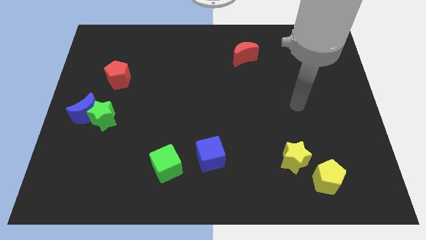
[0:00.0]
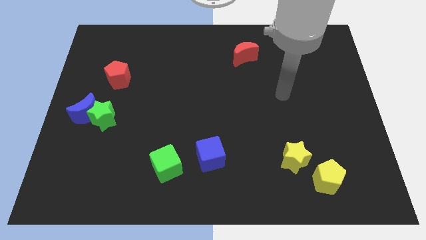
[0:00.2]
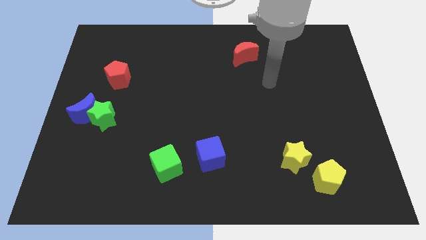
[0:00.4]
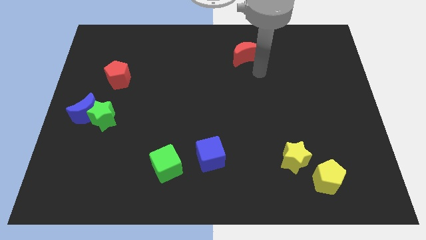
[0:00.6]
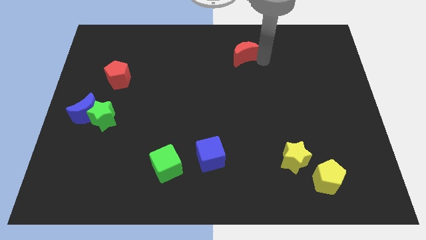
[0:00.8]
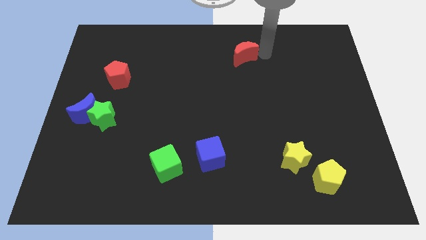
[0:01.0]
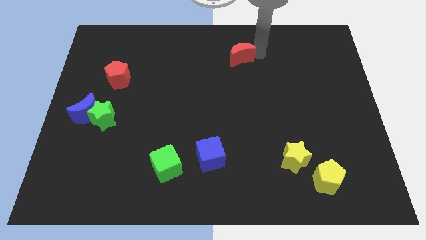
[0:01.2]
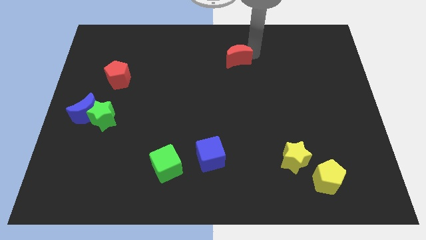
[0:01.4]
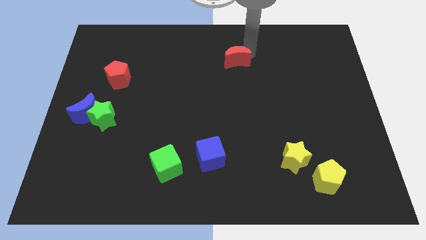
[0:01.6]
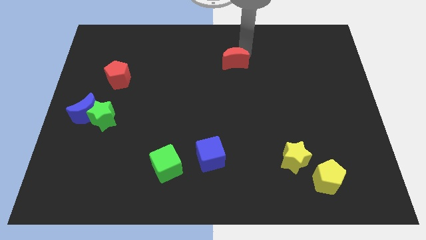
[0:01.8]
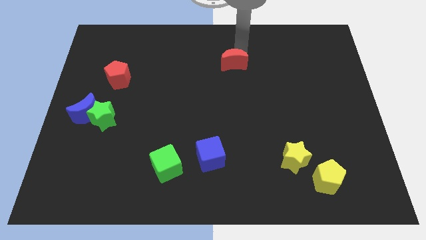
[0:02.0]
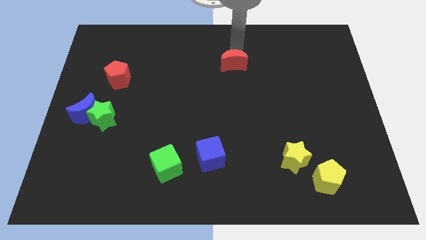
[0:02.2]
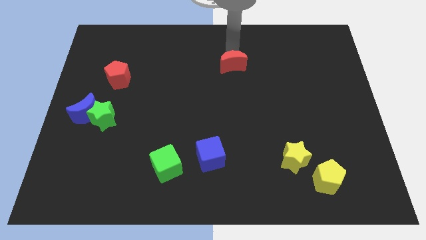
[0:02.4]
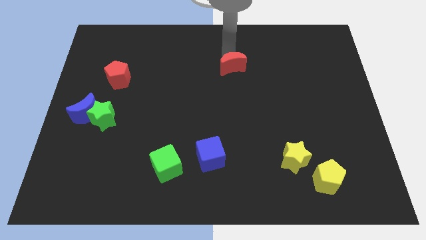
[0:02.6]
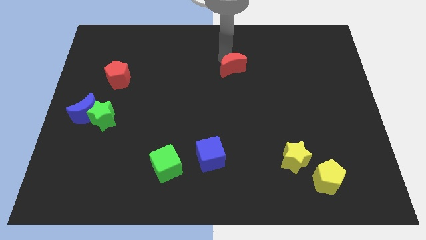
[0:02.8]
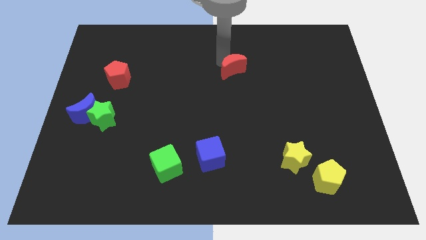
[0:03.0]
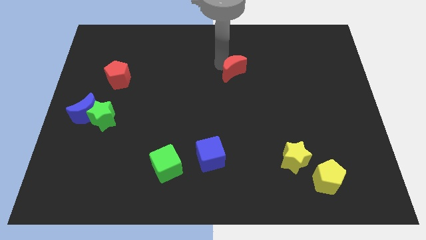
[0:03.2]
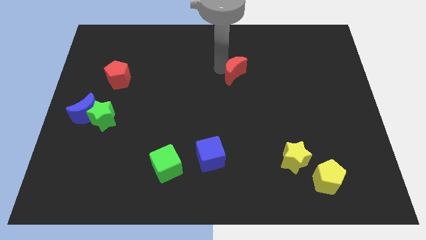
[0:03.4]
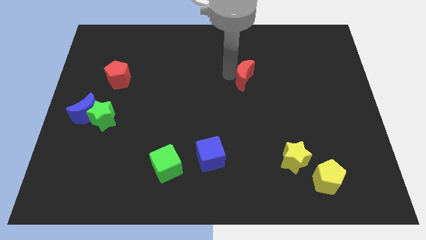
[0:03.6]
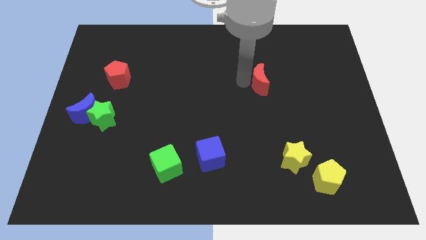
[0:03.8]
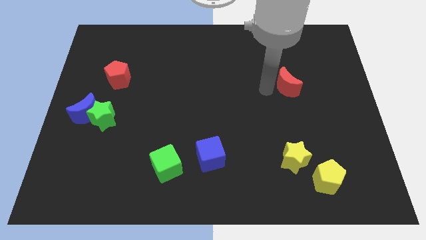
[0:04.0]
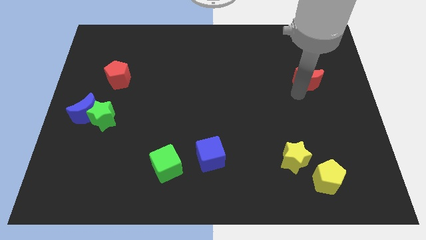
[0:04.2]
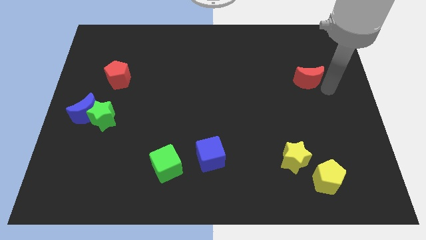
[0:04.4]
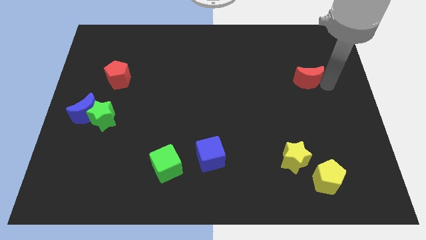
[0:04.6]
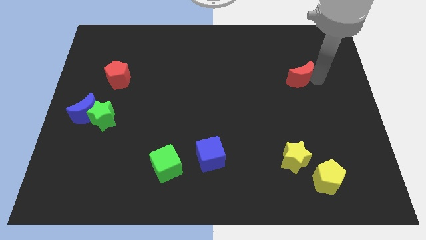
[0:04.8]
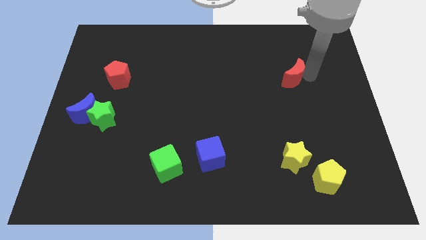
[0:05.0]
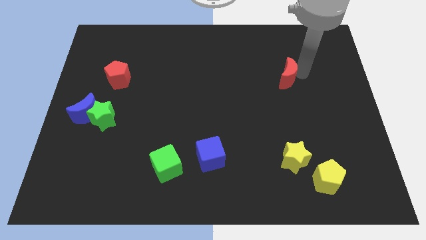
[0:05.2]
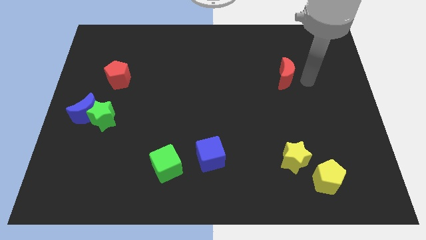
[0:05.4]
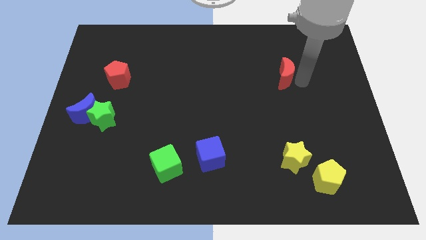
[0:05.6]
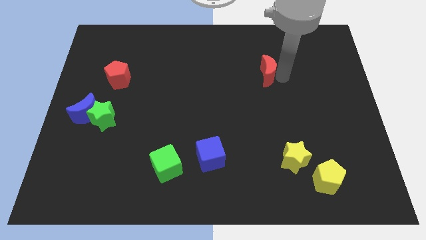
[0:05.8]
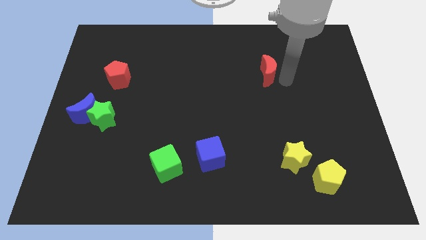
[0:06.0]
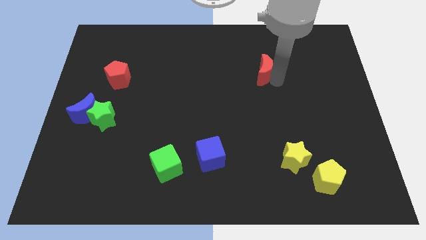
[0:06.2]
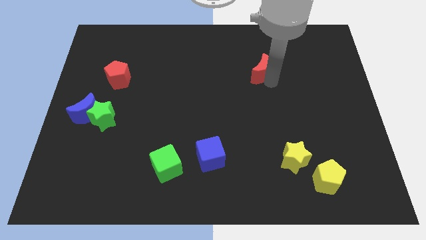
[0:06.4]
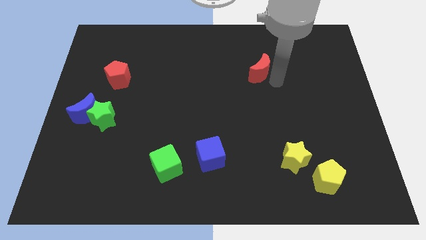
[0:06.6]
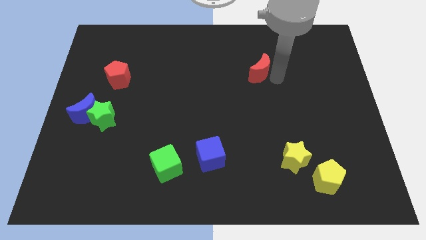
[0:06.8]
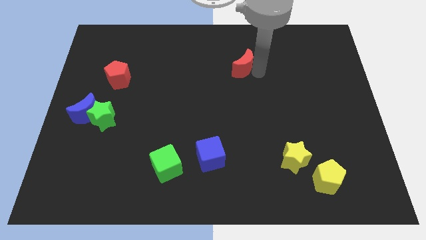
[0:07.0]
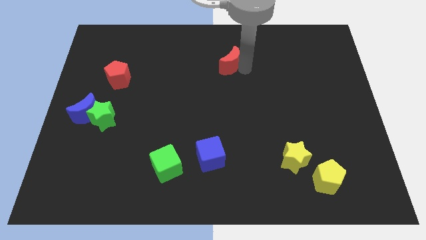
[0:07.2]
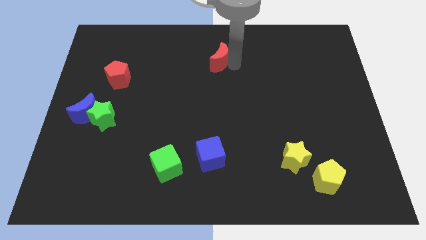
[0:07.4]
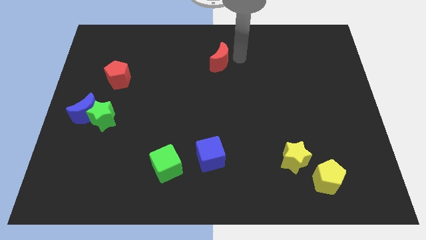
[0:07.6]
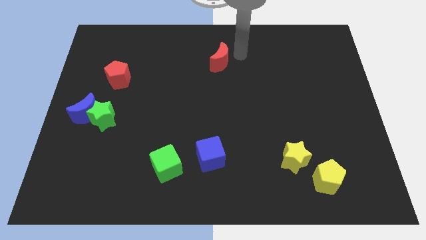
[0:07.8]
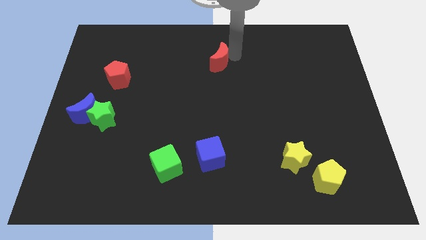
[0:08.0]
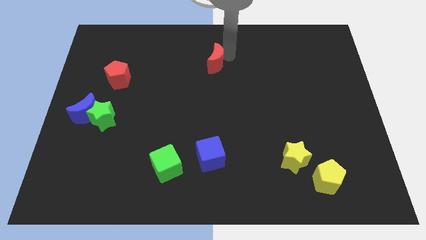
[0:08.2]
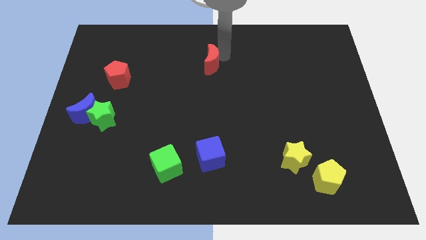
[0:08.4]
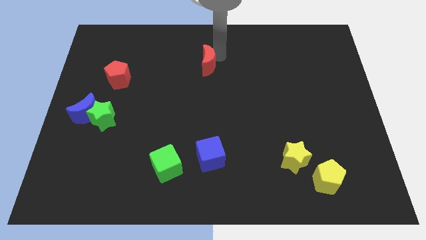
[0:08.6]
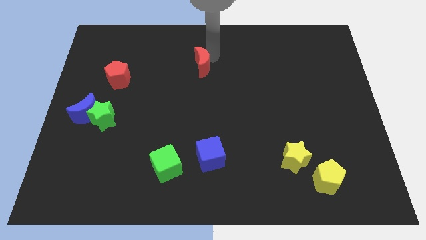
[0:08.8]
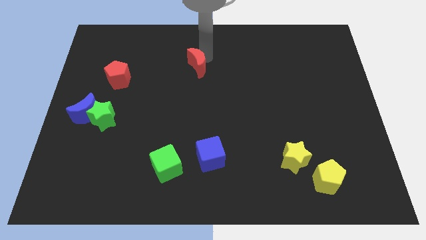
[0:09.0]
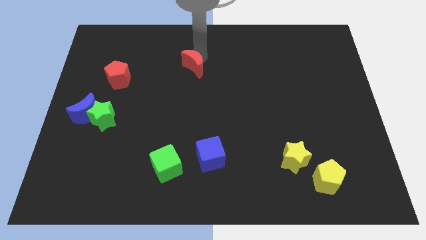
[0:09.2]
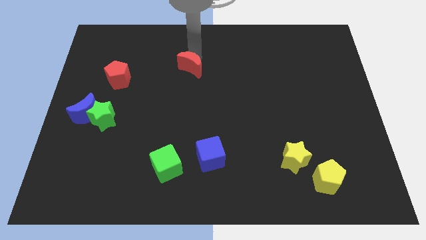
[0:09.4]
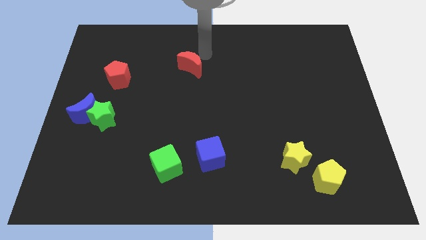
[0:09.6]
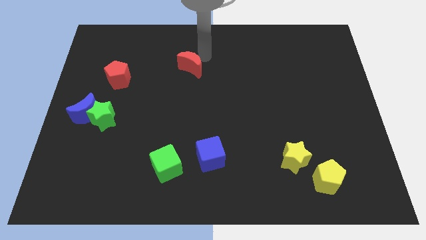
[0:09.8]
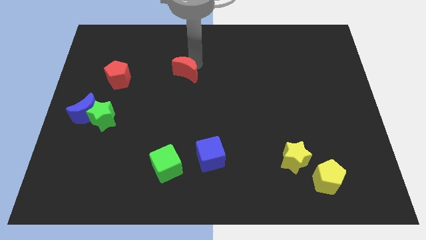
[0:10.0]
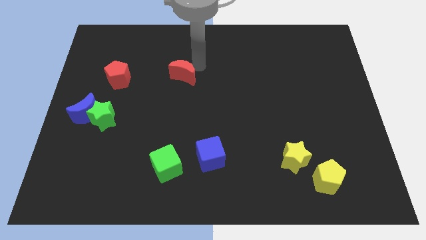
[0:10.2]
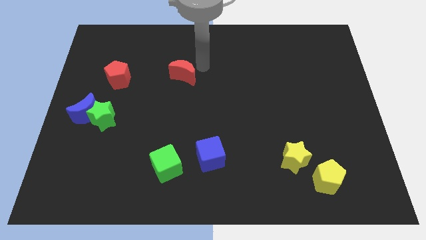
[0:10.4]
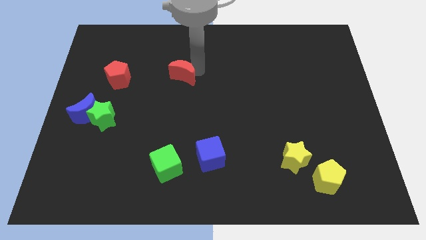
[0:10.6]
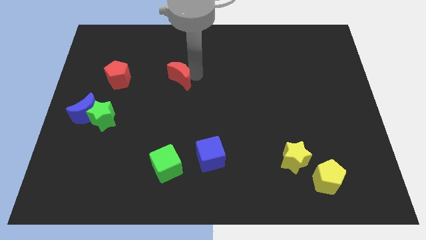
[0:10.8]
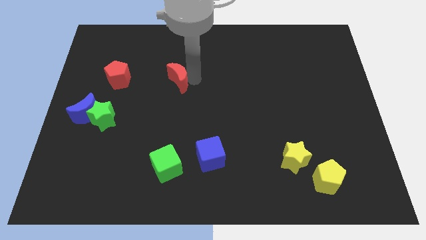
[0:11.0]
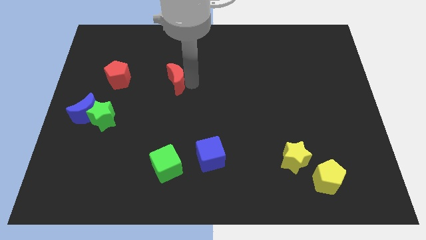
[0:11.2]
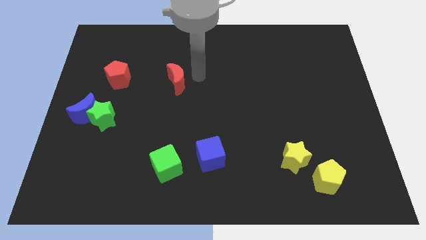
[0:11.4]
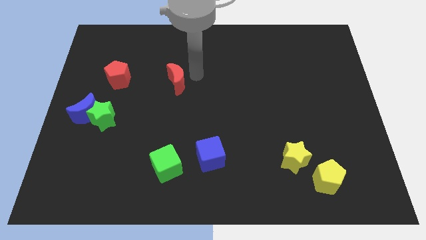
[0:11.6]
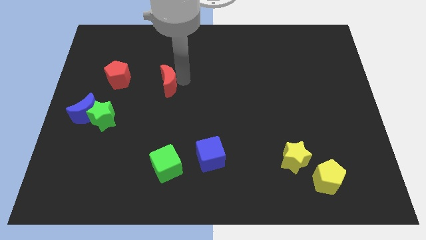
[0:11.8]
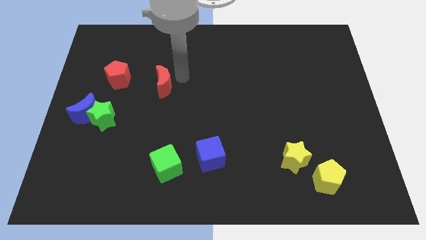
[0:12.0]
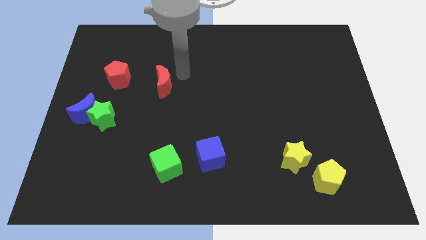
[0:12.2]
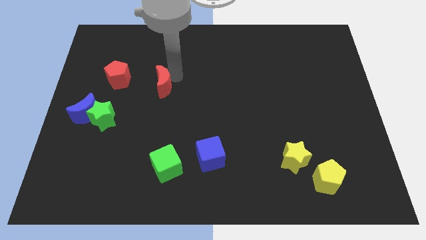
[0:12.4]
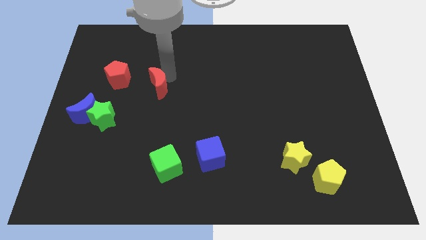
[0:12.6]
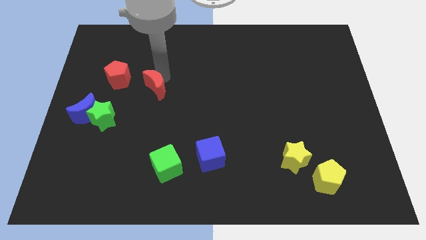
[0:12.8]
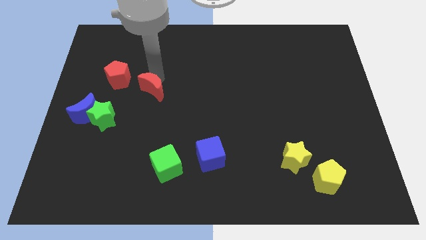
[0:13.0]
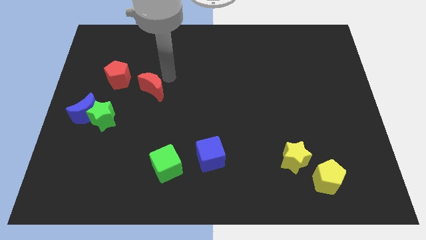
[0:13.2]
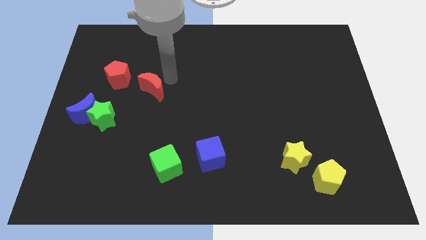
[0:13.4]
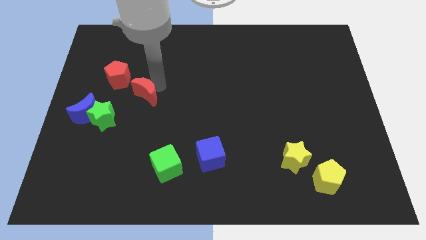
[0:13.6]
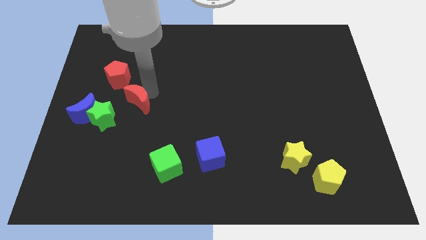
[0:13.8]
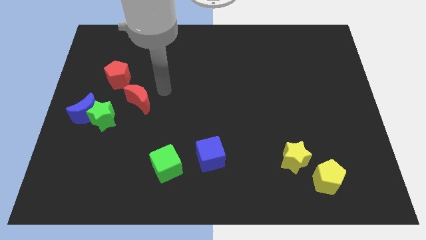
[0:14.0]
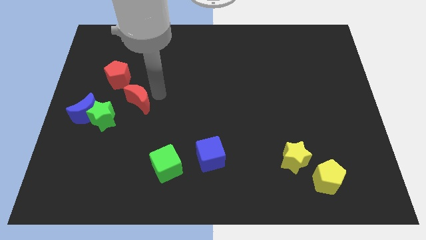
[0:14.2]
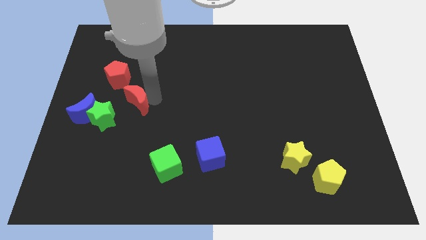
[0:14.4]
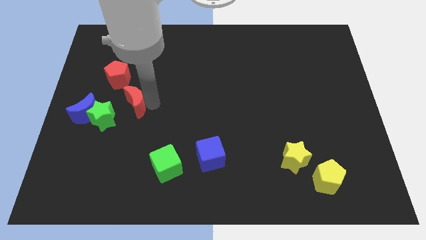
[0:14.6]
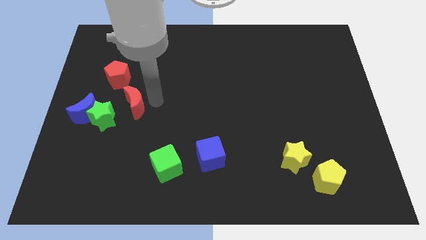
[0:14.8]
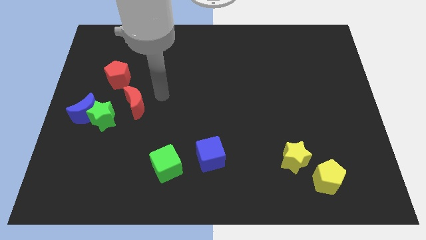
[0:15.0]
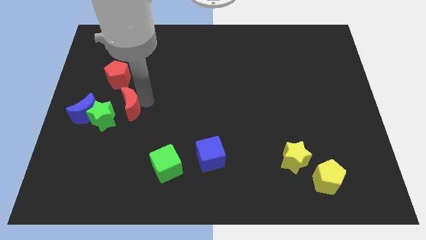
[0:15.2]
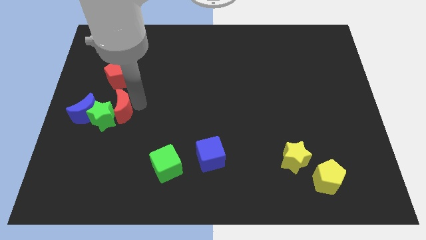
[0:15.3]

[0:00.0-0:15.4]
push the red moon close to the green star
